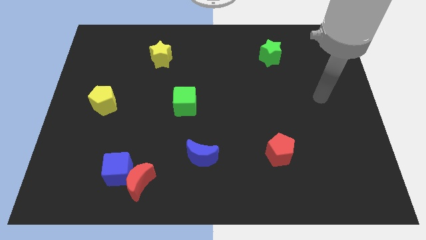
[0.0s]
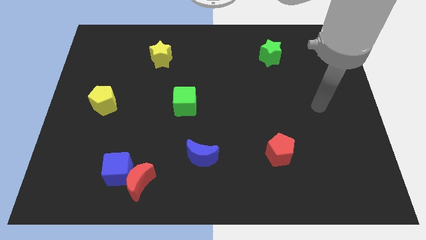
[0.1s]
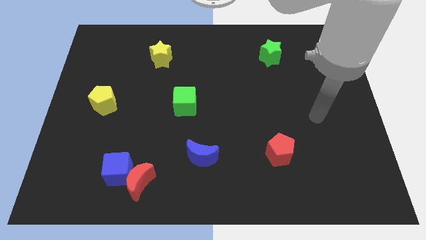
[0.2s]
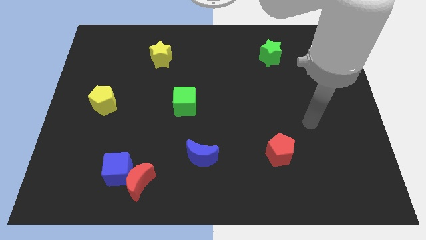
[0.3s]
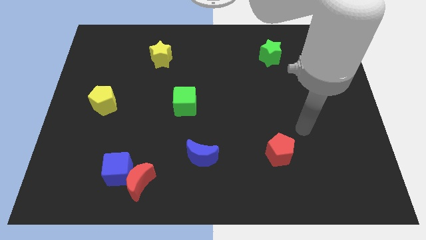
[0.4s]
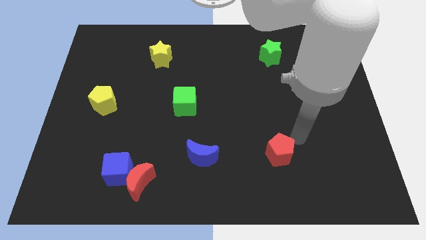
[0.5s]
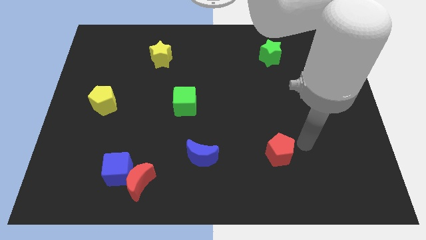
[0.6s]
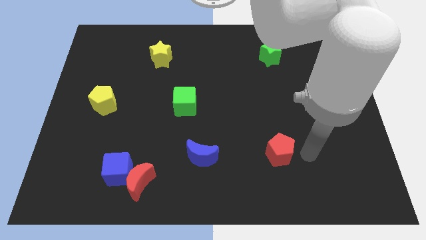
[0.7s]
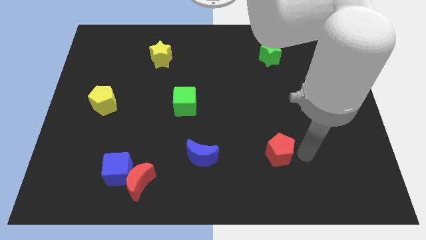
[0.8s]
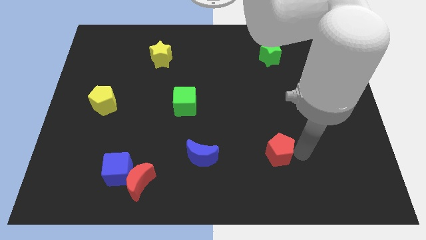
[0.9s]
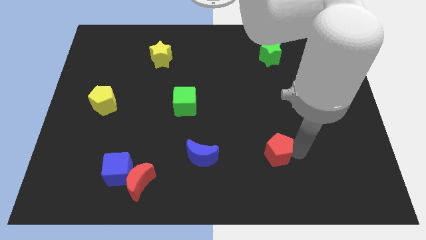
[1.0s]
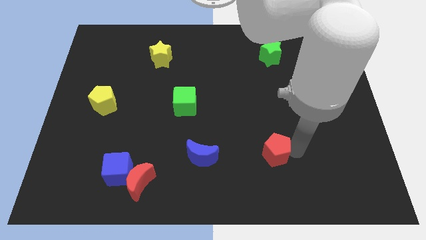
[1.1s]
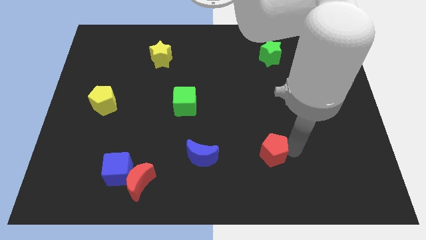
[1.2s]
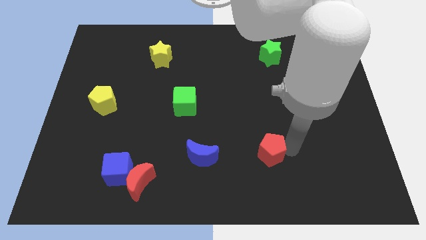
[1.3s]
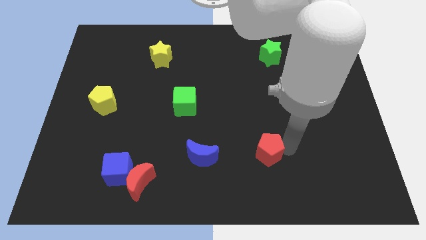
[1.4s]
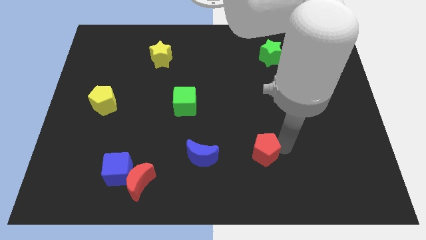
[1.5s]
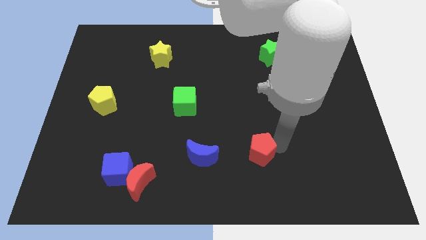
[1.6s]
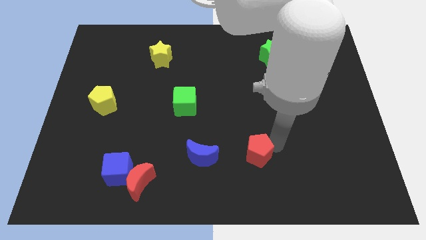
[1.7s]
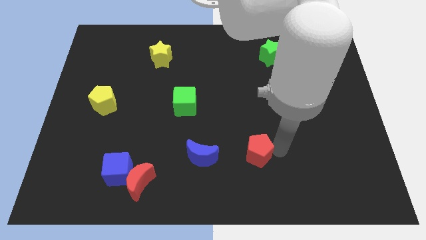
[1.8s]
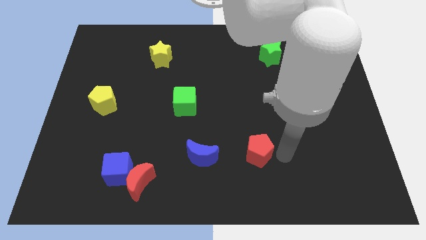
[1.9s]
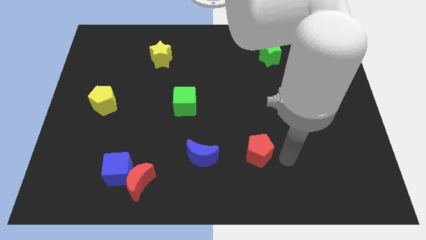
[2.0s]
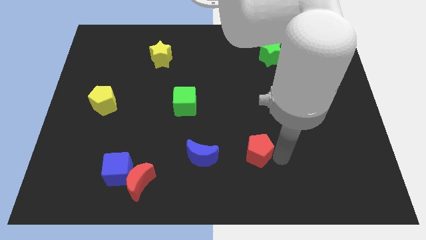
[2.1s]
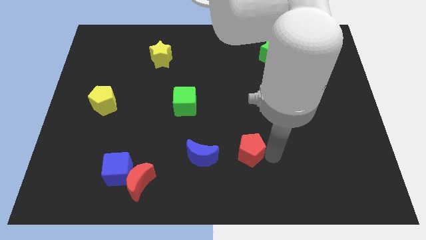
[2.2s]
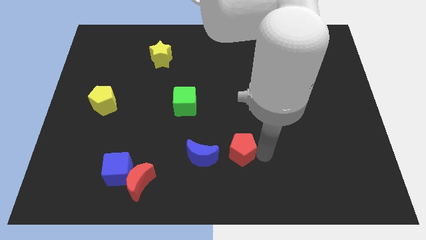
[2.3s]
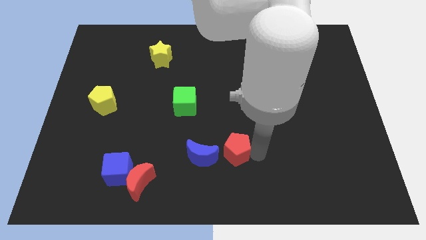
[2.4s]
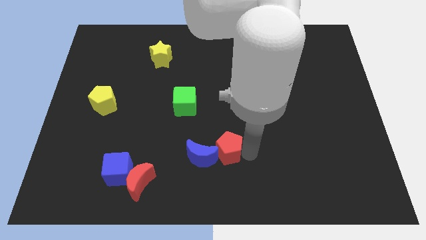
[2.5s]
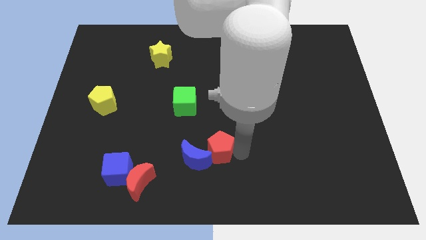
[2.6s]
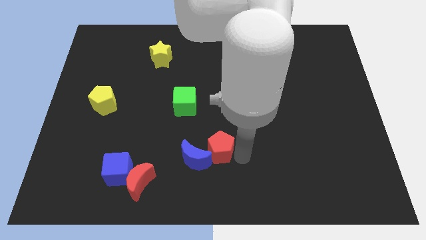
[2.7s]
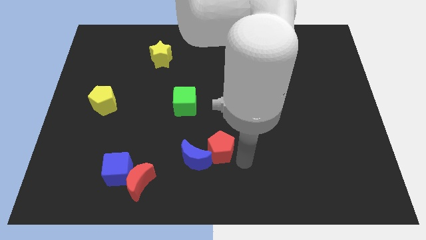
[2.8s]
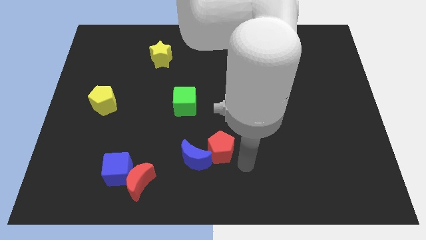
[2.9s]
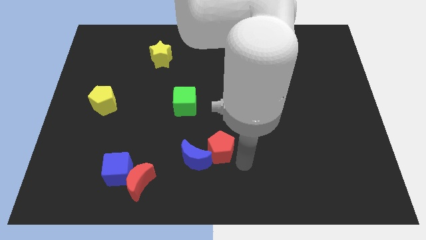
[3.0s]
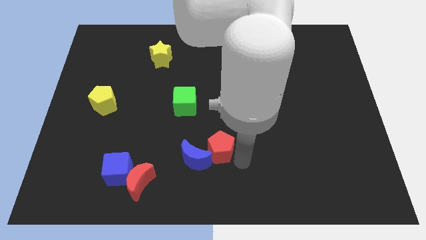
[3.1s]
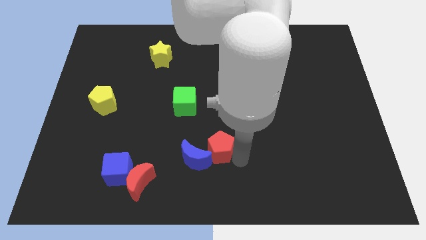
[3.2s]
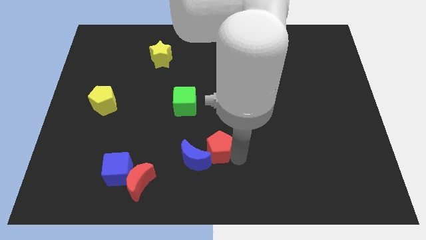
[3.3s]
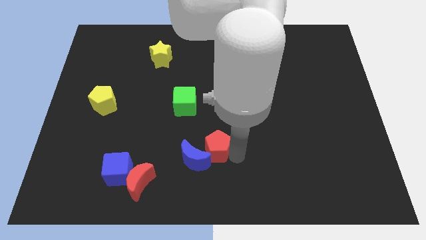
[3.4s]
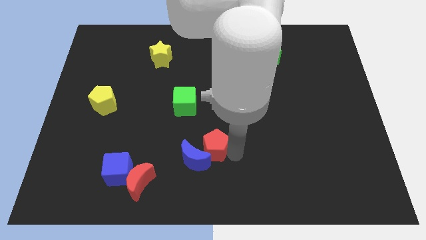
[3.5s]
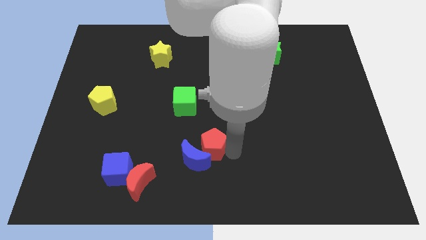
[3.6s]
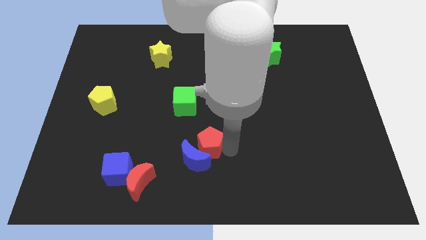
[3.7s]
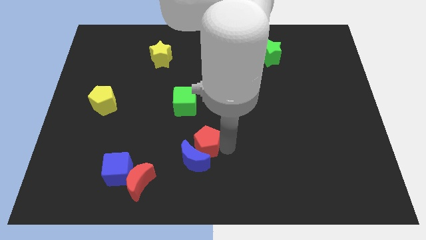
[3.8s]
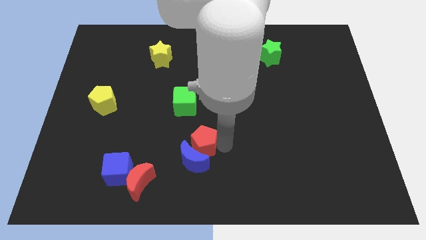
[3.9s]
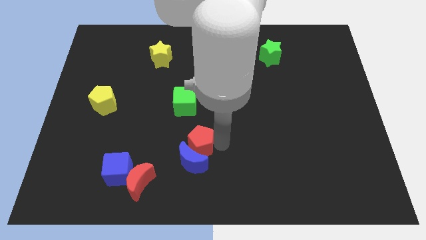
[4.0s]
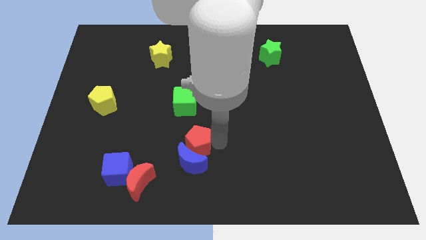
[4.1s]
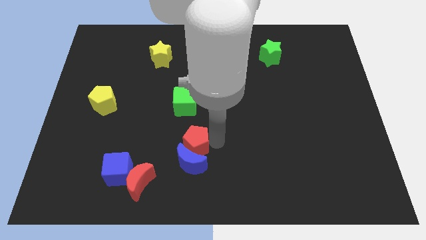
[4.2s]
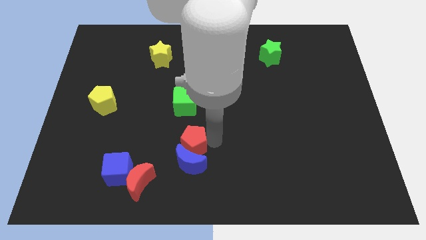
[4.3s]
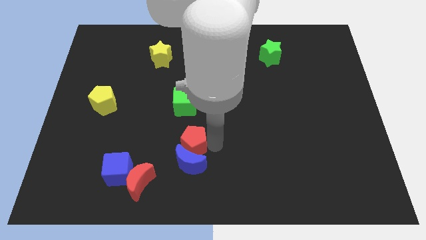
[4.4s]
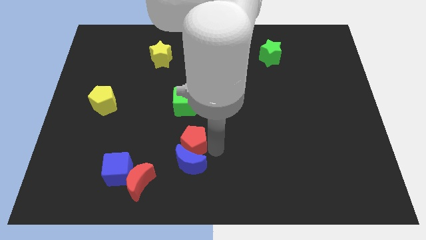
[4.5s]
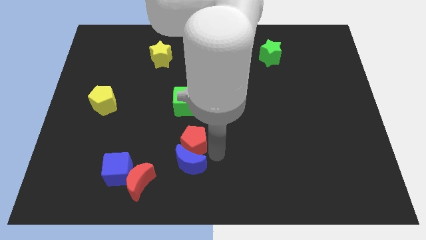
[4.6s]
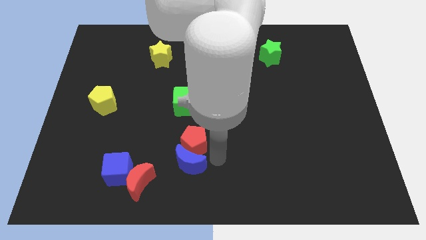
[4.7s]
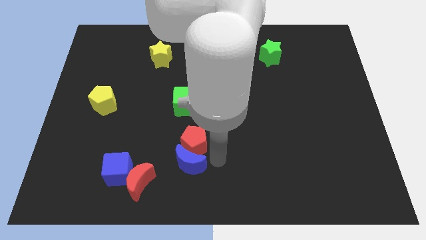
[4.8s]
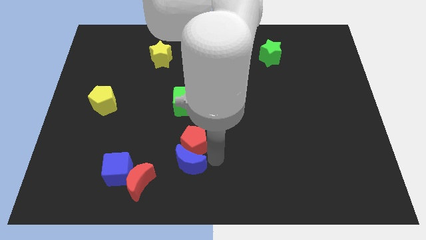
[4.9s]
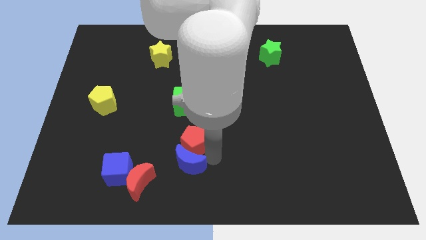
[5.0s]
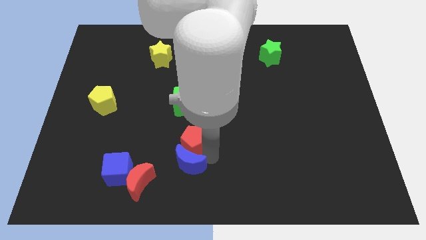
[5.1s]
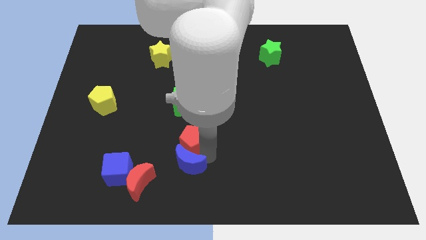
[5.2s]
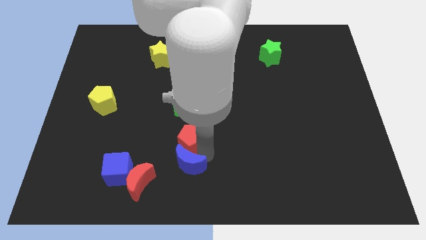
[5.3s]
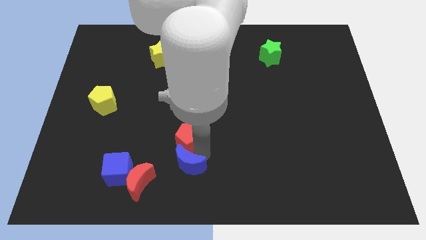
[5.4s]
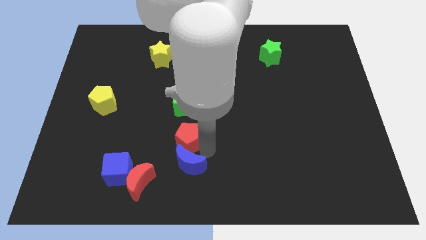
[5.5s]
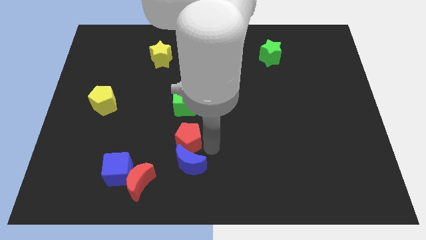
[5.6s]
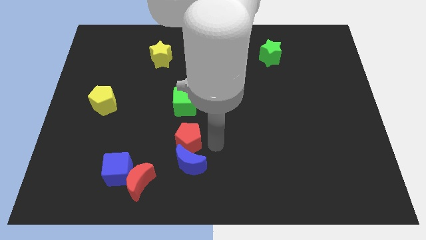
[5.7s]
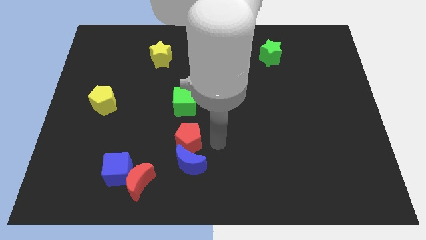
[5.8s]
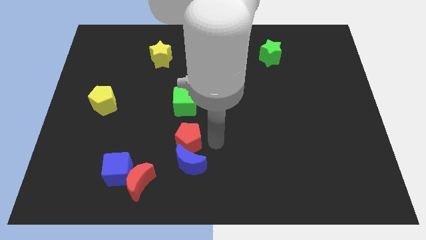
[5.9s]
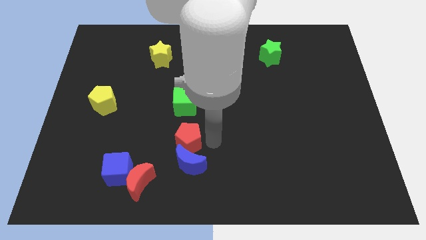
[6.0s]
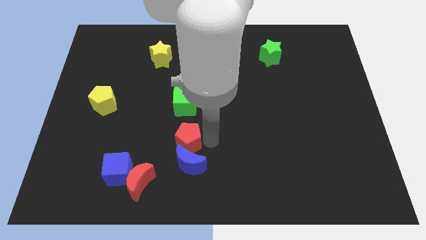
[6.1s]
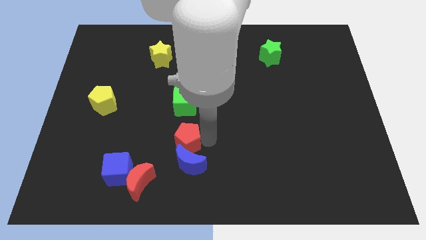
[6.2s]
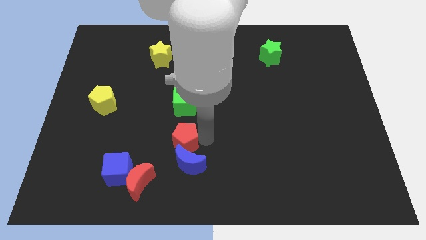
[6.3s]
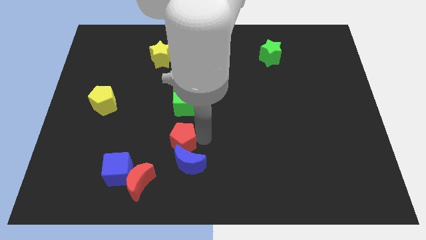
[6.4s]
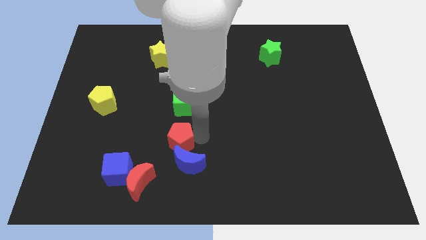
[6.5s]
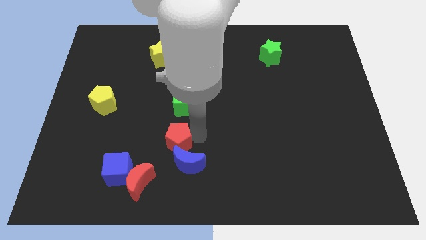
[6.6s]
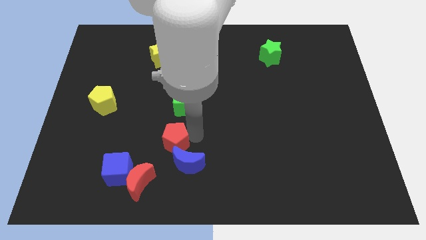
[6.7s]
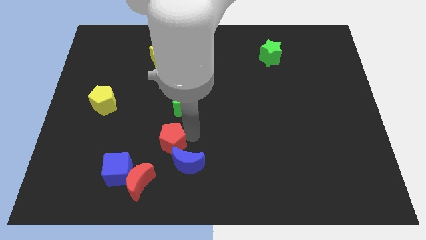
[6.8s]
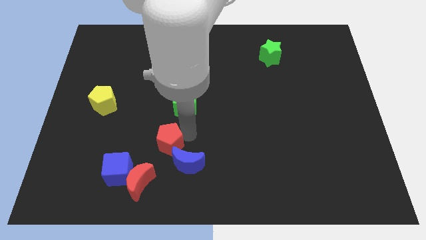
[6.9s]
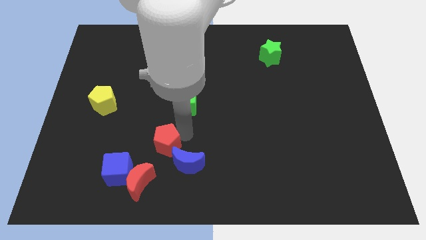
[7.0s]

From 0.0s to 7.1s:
push the red pentagon to the top side of the red moon
